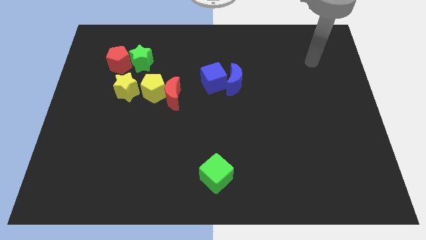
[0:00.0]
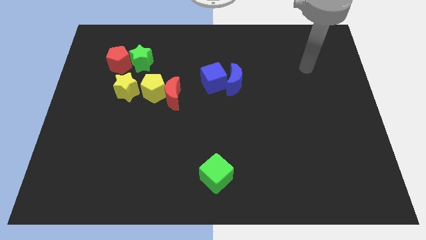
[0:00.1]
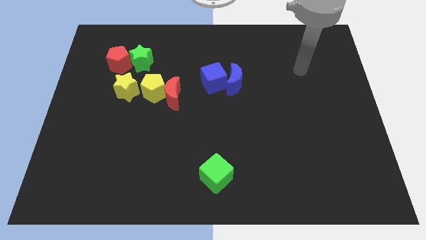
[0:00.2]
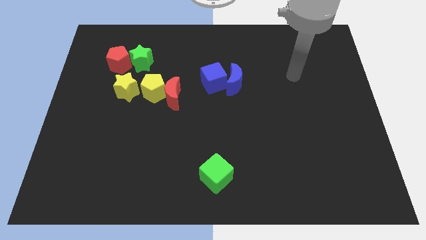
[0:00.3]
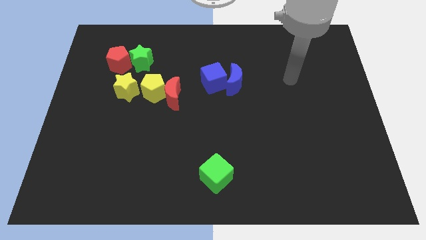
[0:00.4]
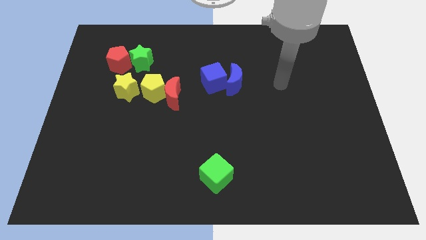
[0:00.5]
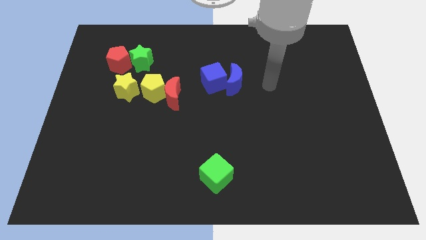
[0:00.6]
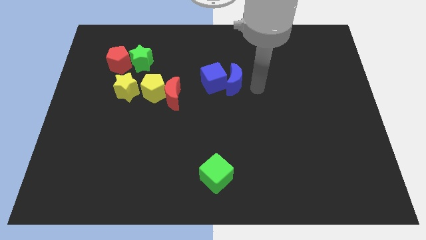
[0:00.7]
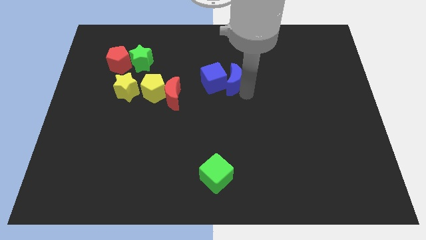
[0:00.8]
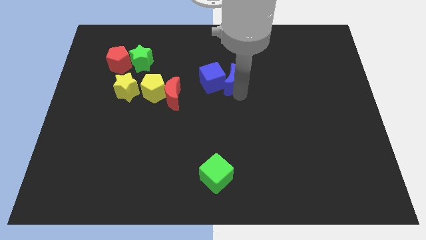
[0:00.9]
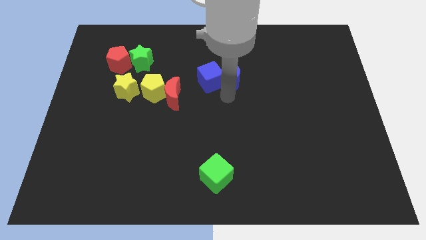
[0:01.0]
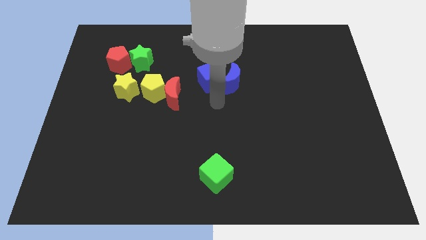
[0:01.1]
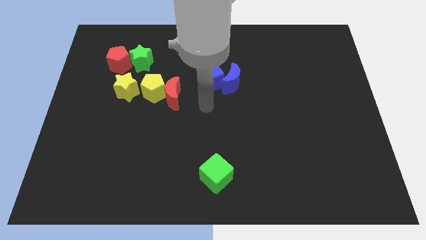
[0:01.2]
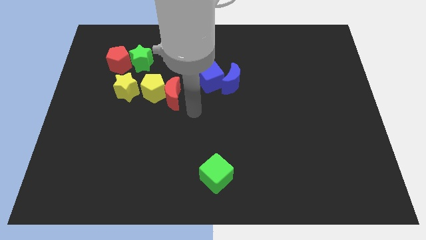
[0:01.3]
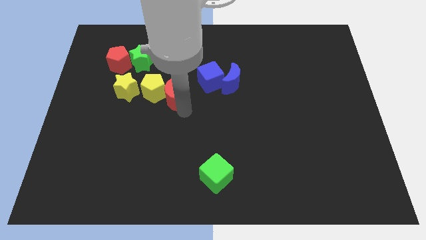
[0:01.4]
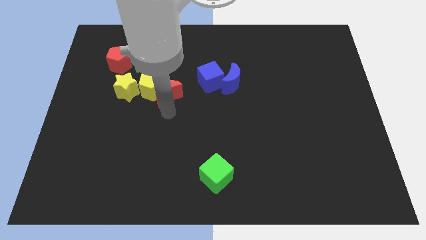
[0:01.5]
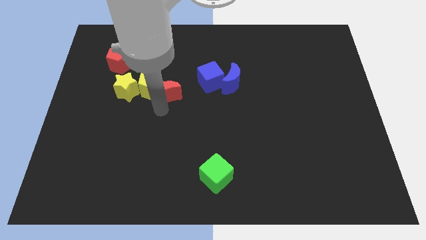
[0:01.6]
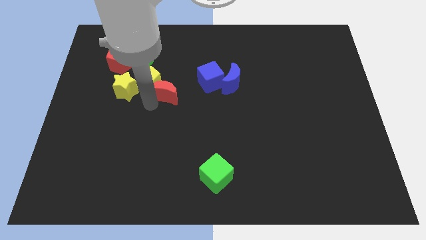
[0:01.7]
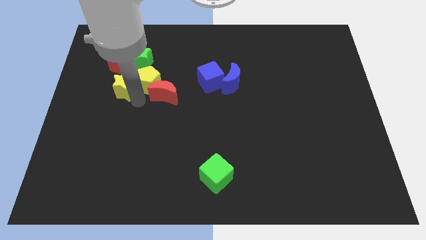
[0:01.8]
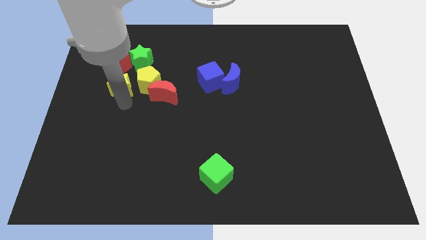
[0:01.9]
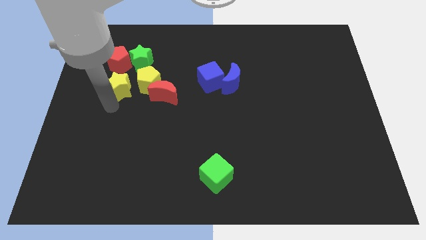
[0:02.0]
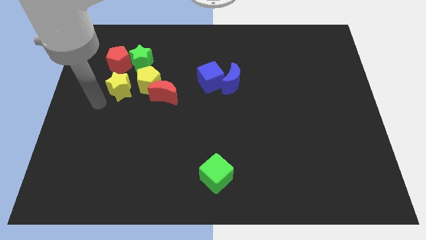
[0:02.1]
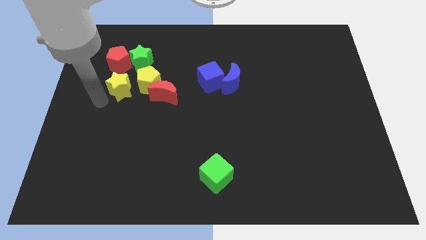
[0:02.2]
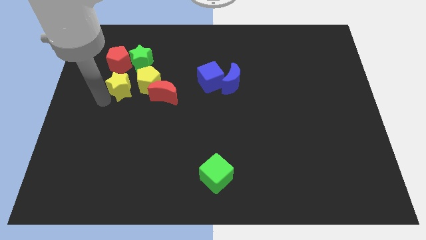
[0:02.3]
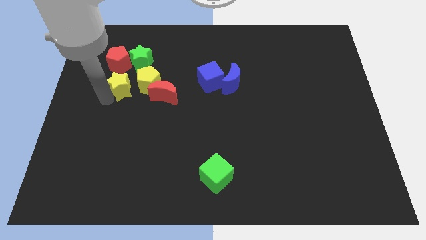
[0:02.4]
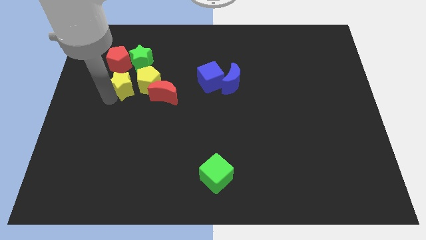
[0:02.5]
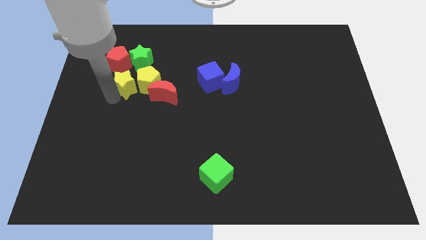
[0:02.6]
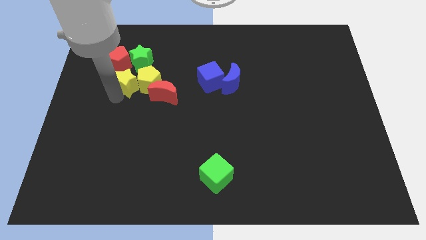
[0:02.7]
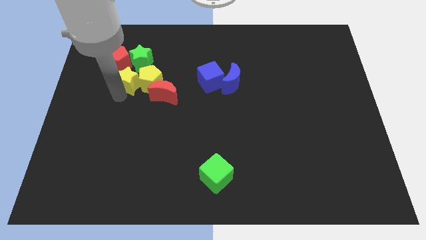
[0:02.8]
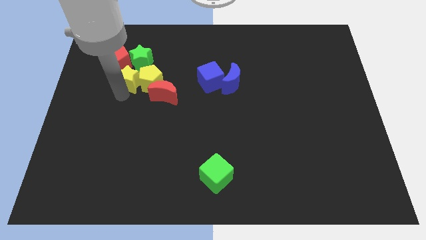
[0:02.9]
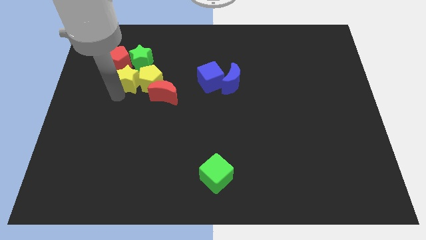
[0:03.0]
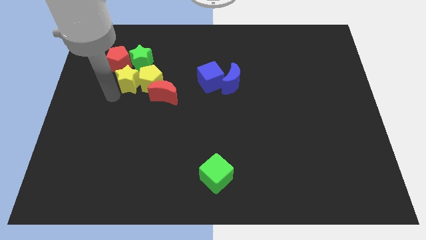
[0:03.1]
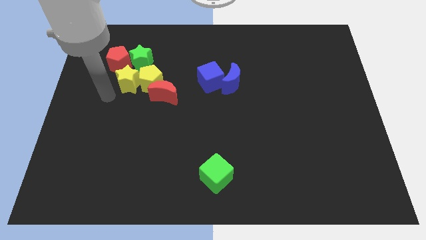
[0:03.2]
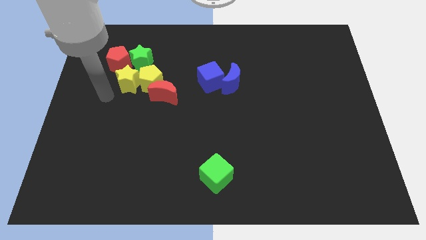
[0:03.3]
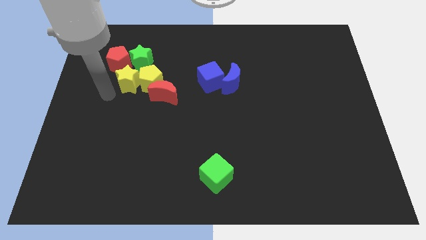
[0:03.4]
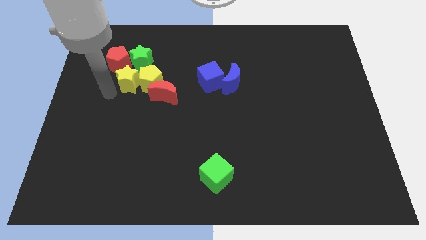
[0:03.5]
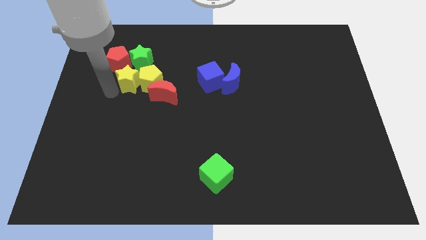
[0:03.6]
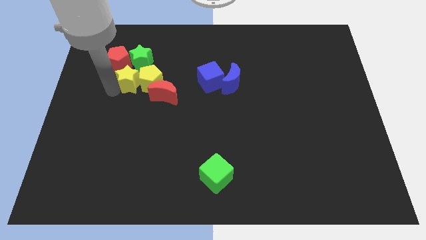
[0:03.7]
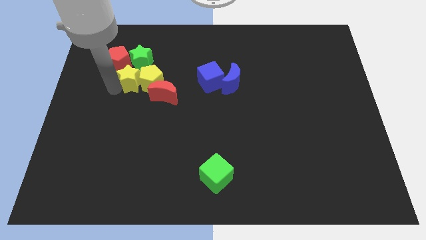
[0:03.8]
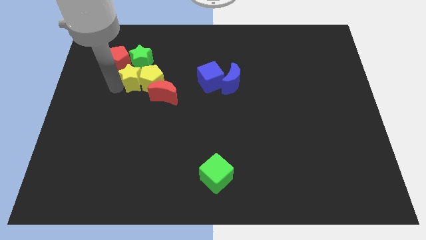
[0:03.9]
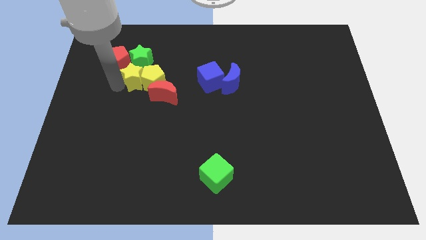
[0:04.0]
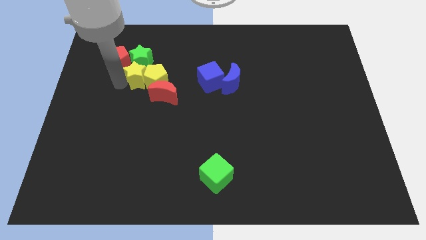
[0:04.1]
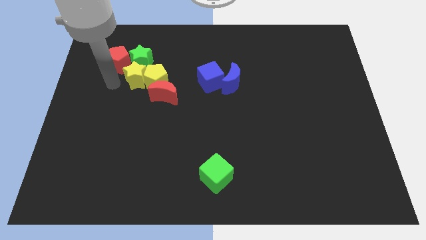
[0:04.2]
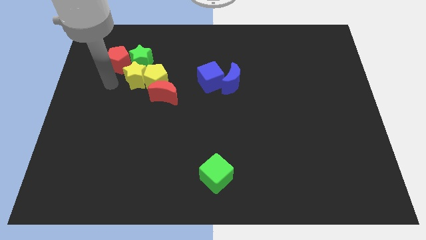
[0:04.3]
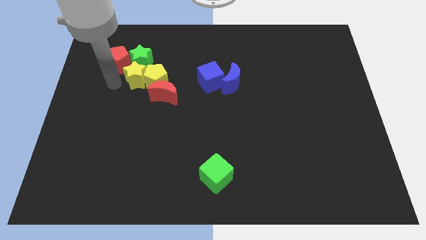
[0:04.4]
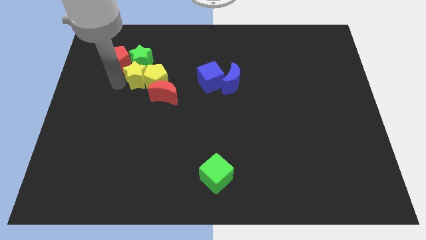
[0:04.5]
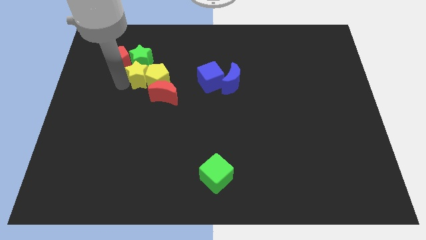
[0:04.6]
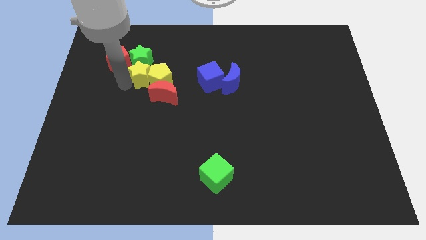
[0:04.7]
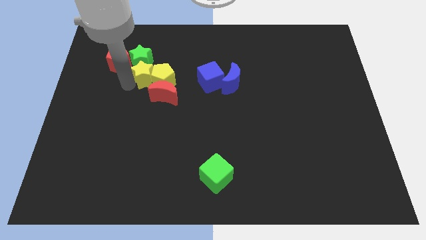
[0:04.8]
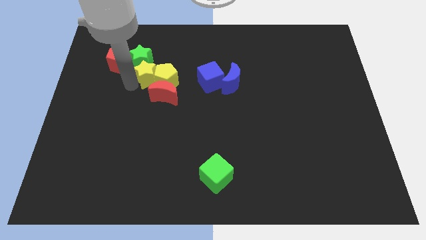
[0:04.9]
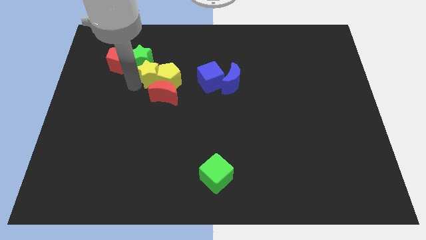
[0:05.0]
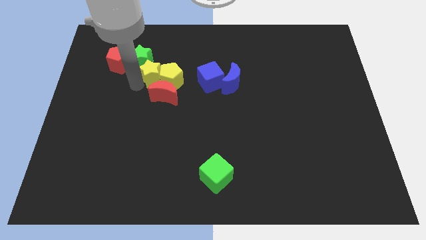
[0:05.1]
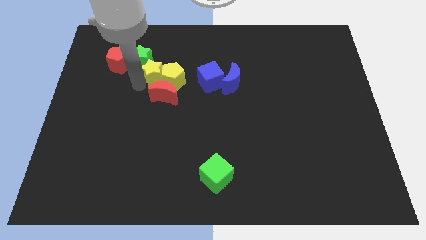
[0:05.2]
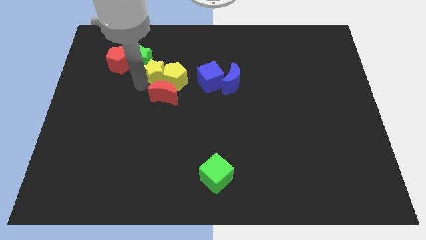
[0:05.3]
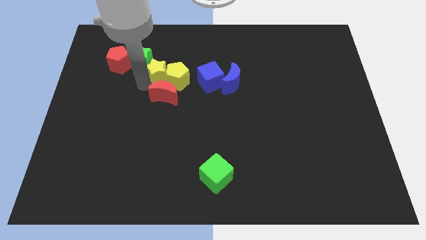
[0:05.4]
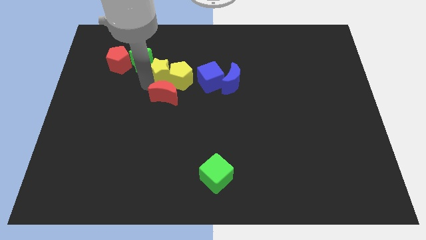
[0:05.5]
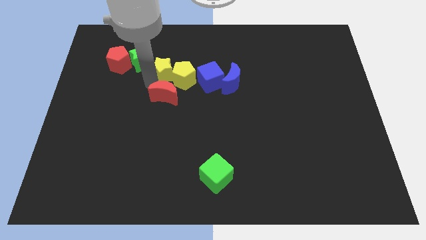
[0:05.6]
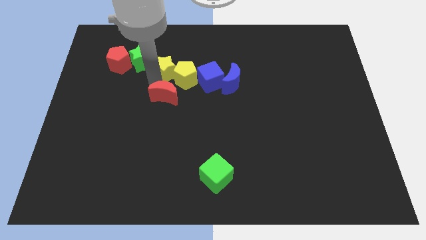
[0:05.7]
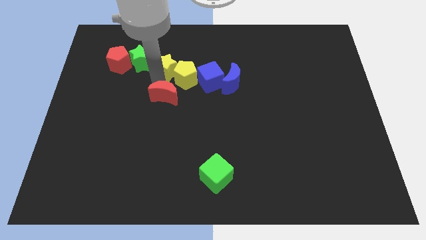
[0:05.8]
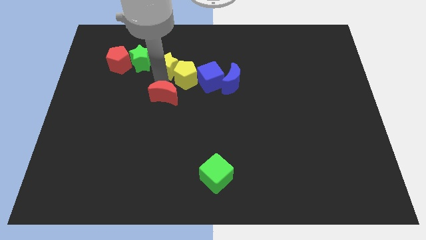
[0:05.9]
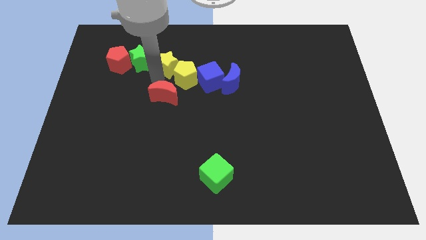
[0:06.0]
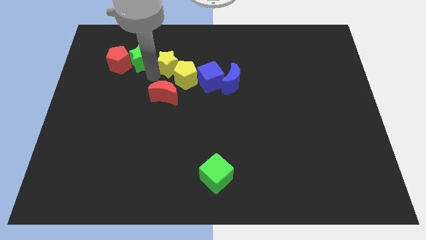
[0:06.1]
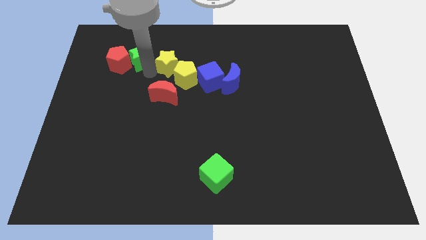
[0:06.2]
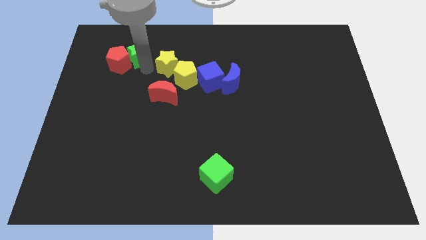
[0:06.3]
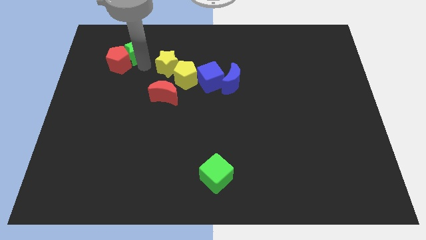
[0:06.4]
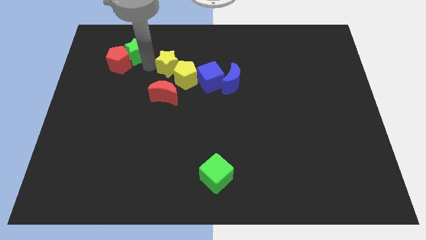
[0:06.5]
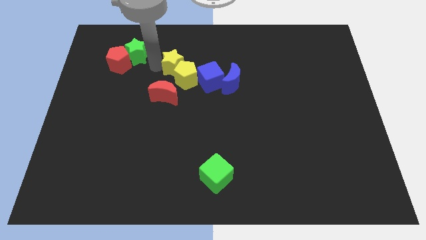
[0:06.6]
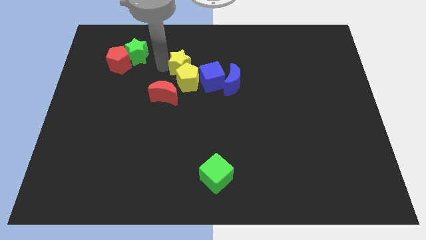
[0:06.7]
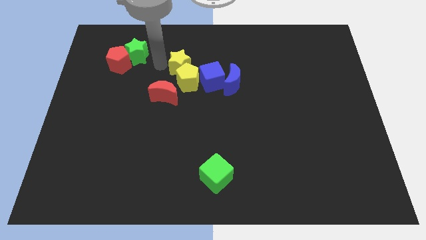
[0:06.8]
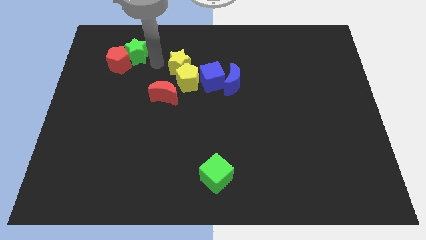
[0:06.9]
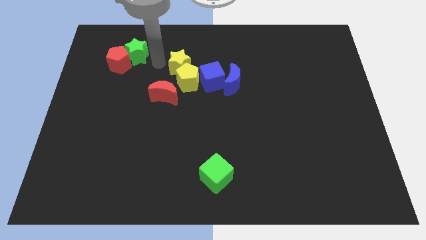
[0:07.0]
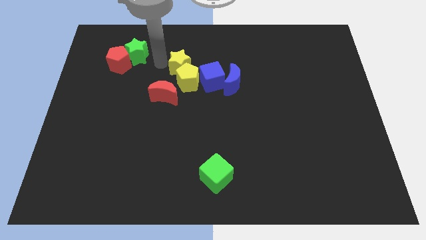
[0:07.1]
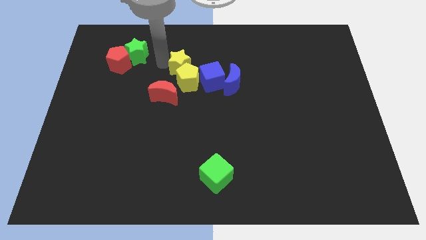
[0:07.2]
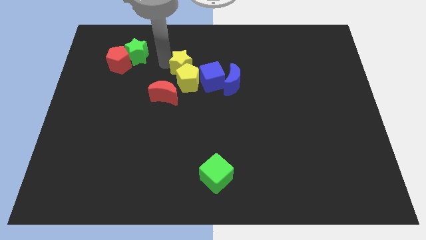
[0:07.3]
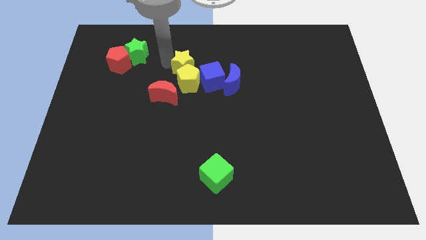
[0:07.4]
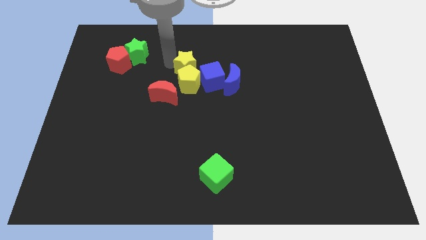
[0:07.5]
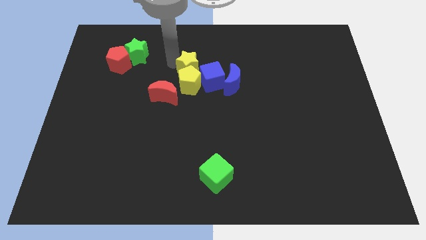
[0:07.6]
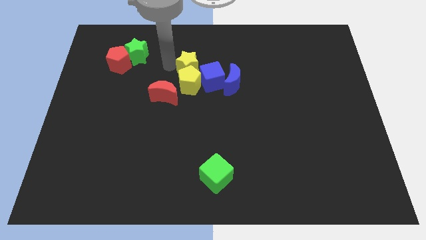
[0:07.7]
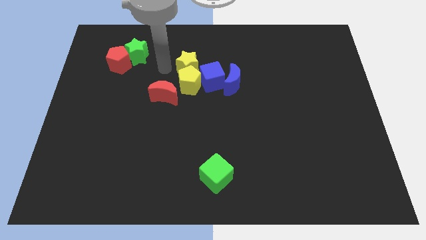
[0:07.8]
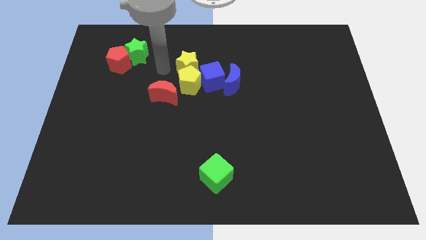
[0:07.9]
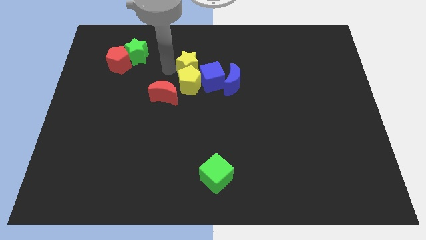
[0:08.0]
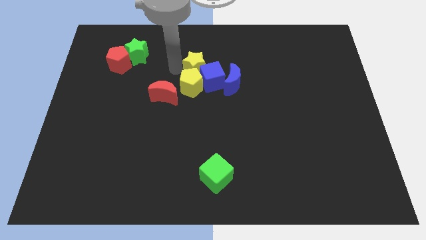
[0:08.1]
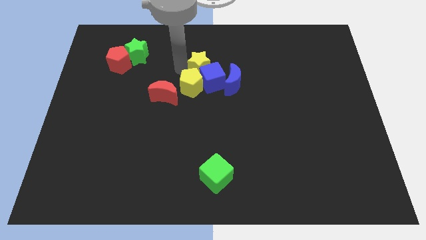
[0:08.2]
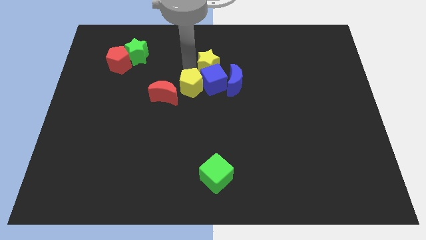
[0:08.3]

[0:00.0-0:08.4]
push the yellow star to the top right side of the blue cube
